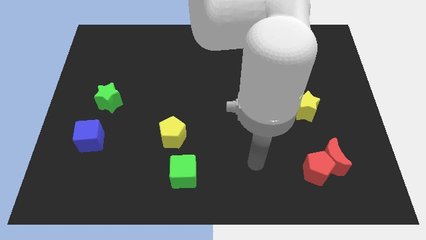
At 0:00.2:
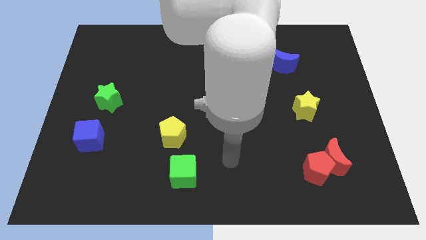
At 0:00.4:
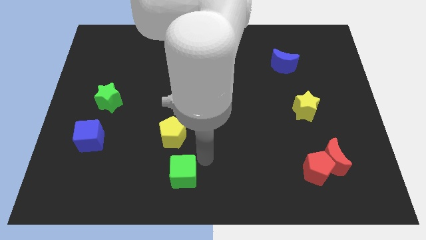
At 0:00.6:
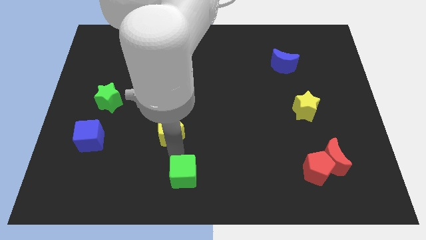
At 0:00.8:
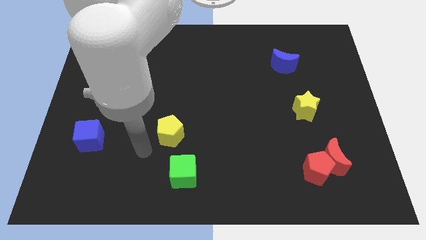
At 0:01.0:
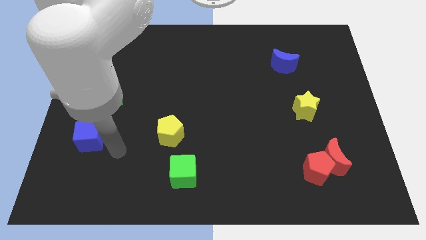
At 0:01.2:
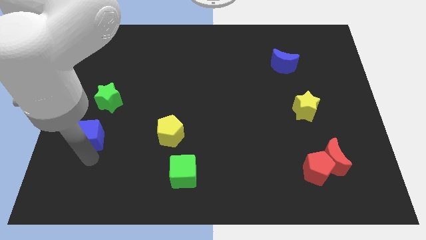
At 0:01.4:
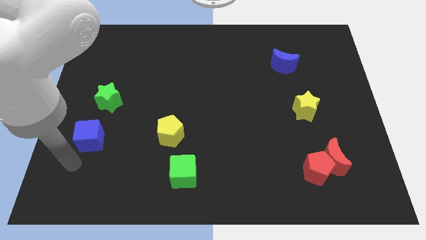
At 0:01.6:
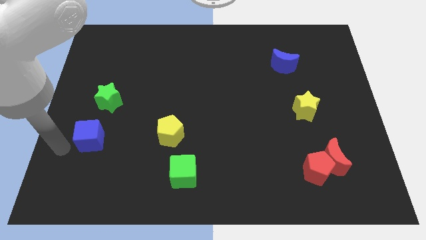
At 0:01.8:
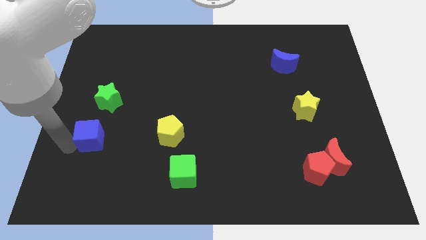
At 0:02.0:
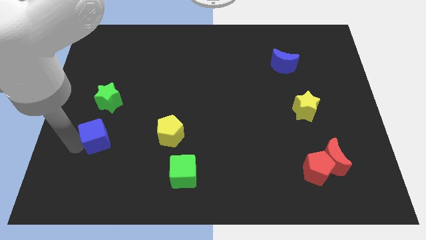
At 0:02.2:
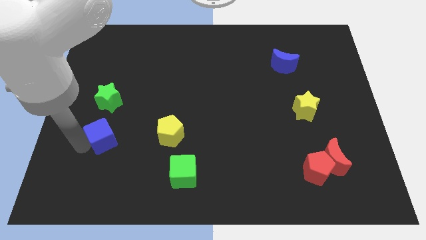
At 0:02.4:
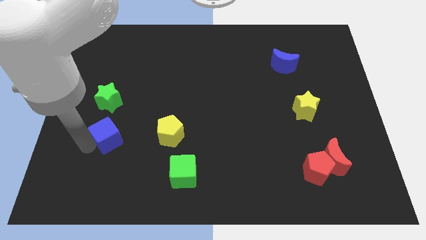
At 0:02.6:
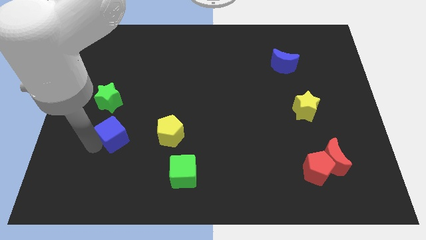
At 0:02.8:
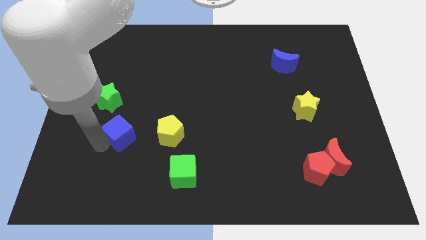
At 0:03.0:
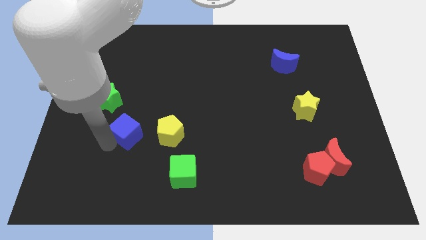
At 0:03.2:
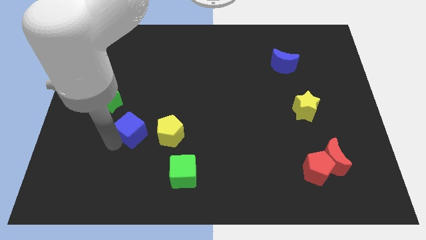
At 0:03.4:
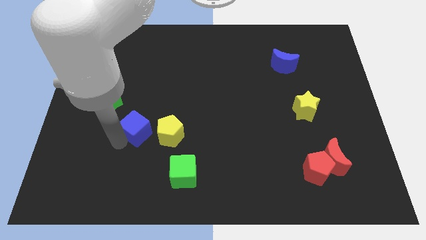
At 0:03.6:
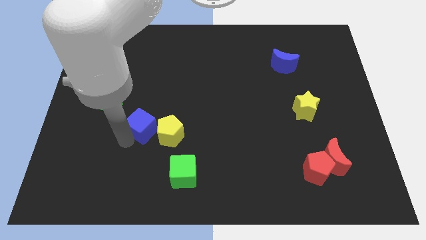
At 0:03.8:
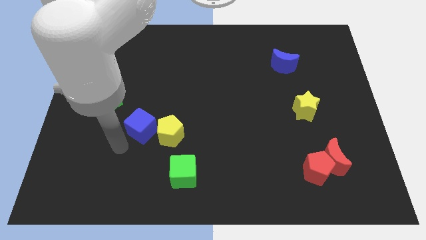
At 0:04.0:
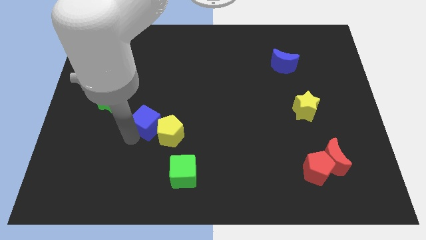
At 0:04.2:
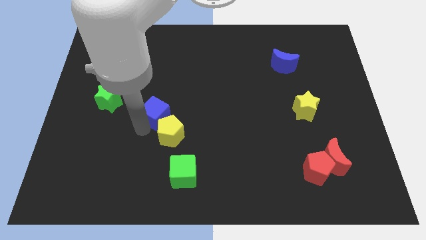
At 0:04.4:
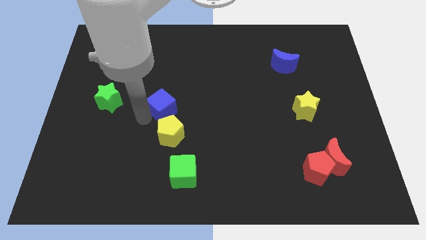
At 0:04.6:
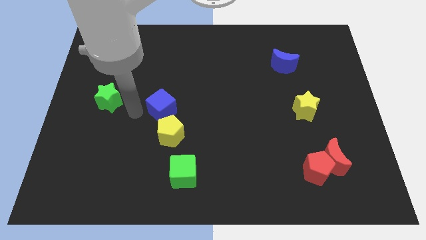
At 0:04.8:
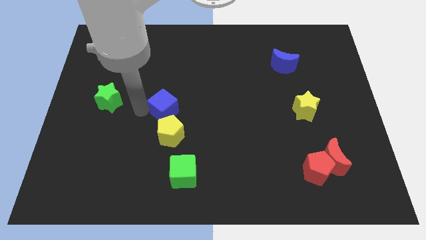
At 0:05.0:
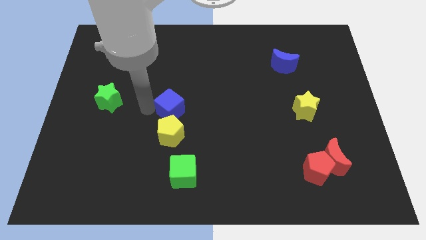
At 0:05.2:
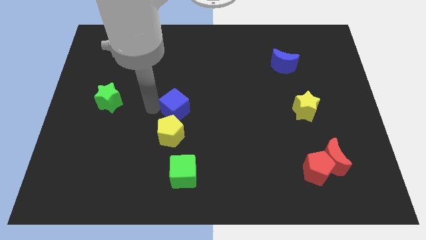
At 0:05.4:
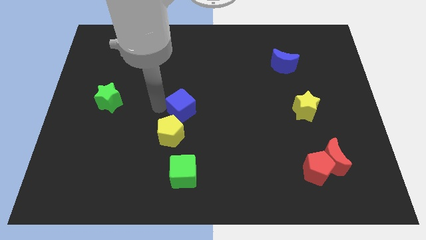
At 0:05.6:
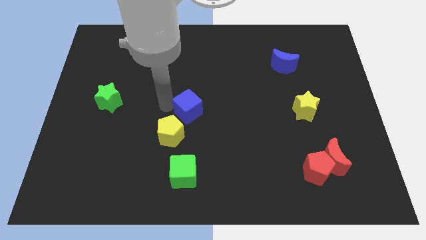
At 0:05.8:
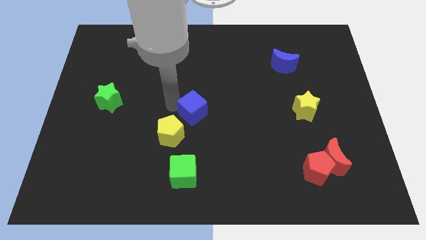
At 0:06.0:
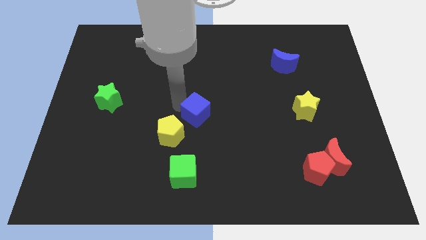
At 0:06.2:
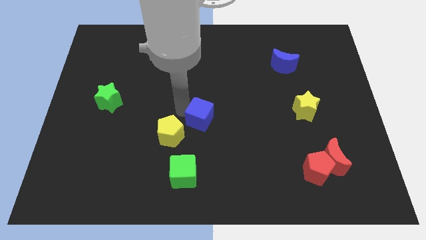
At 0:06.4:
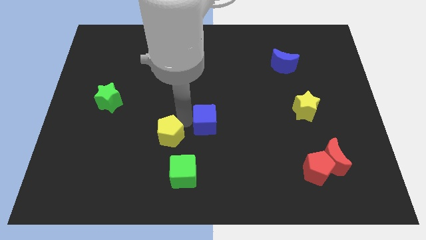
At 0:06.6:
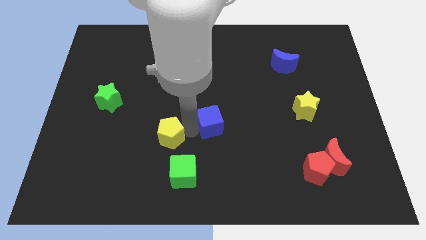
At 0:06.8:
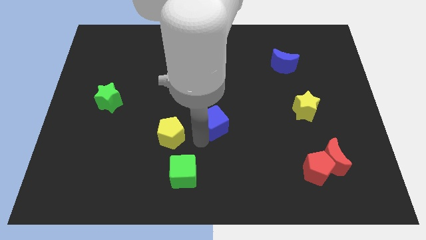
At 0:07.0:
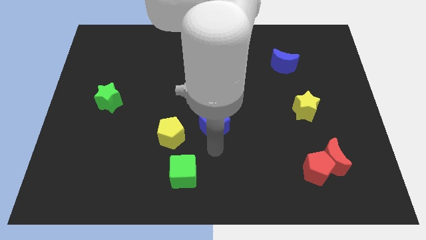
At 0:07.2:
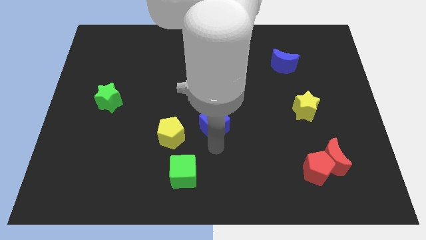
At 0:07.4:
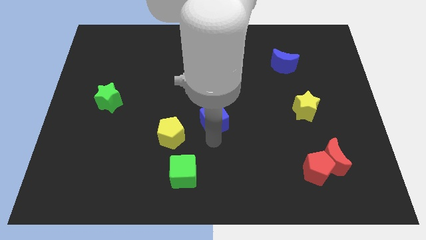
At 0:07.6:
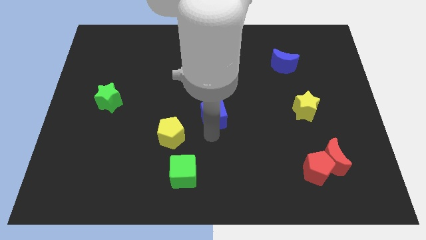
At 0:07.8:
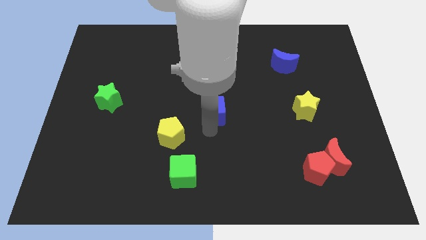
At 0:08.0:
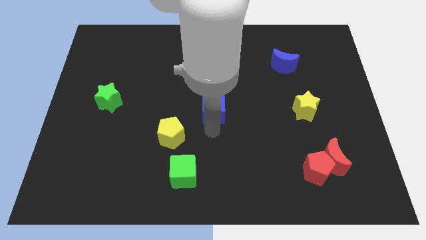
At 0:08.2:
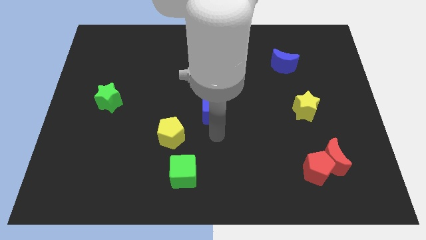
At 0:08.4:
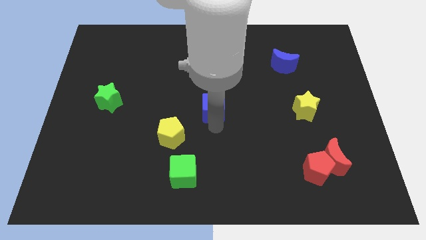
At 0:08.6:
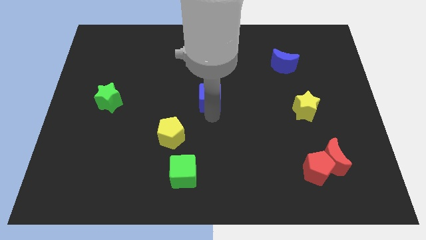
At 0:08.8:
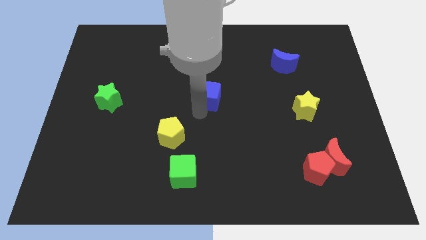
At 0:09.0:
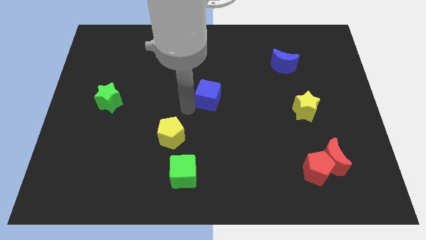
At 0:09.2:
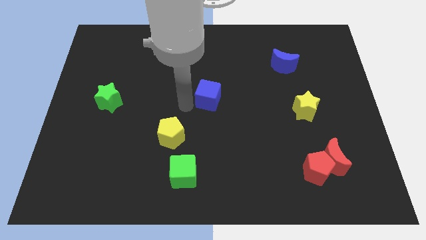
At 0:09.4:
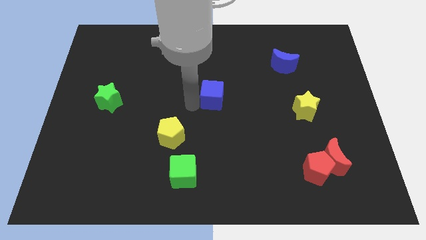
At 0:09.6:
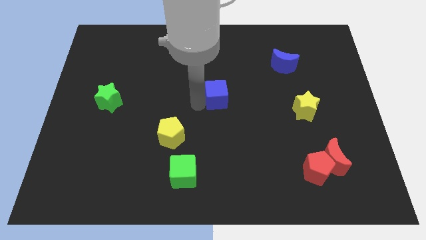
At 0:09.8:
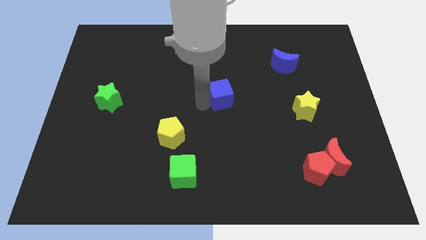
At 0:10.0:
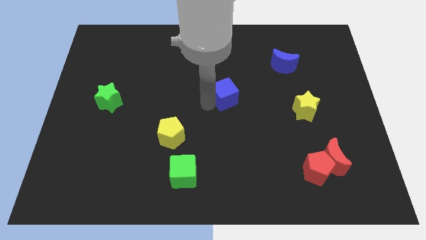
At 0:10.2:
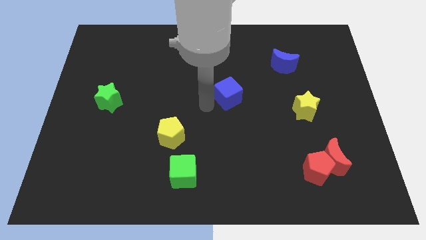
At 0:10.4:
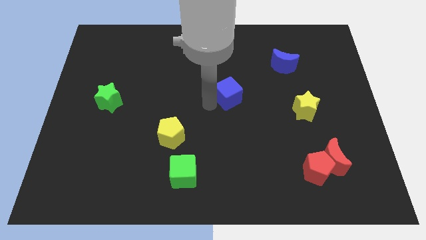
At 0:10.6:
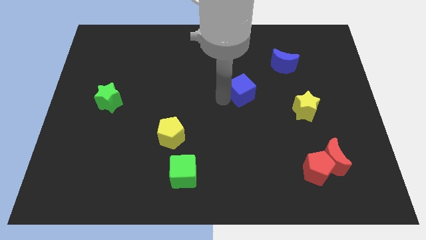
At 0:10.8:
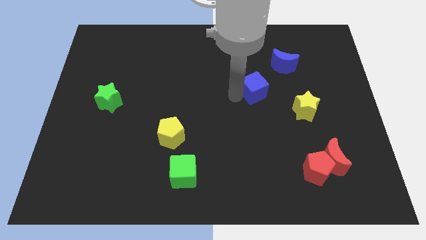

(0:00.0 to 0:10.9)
slide the blue cube to the bottom left side of the blue moon

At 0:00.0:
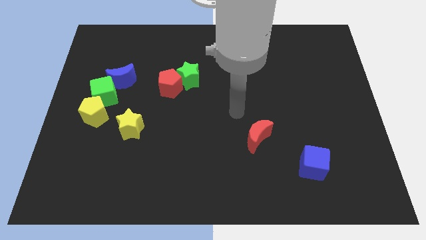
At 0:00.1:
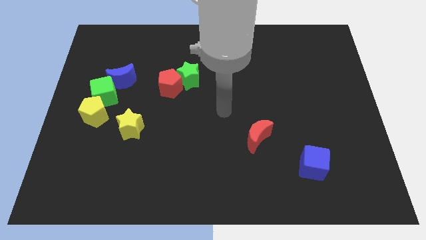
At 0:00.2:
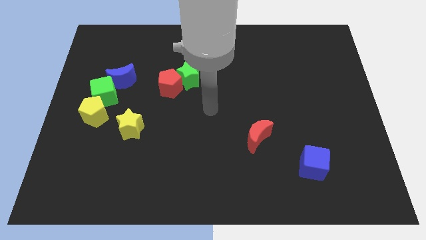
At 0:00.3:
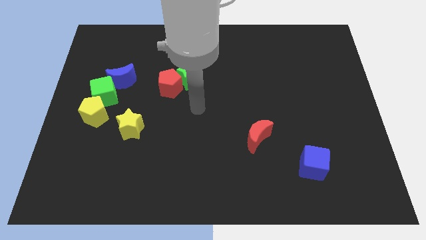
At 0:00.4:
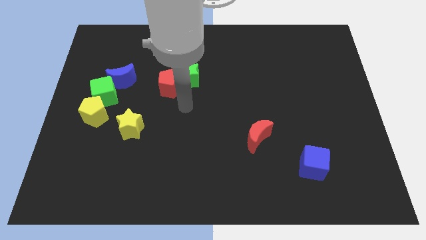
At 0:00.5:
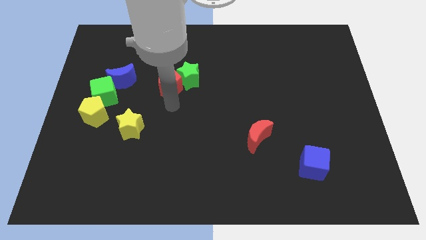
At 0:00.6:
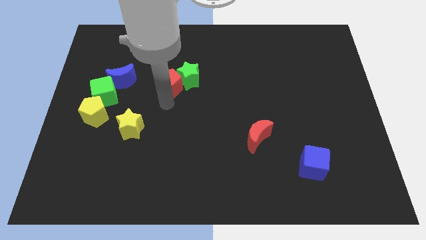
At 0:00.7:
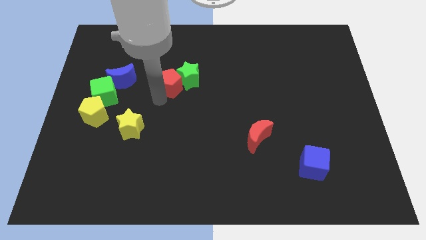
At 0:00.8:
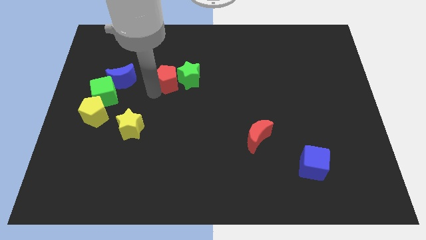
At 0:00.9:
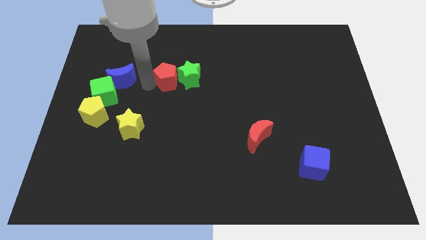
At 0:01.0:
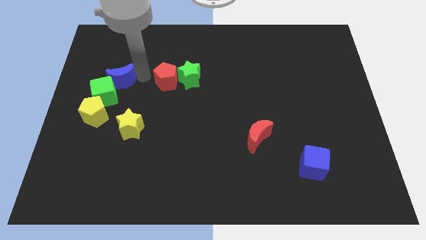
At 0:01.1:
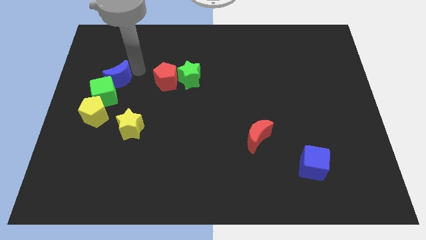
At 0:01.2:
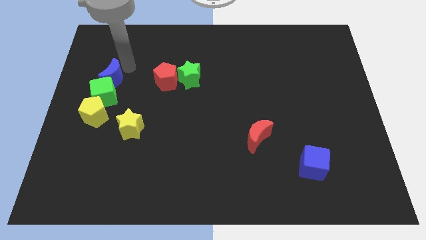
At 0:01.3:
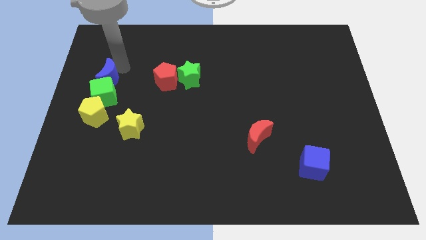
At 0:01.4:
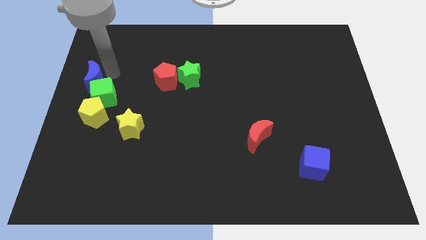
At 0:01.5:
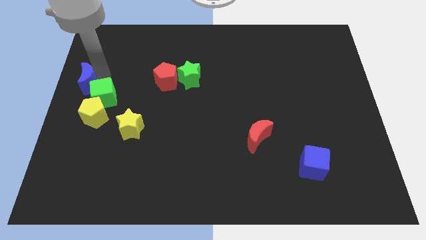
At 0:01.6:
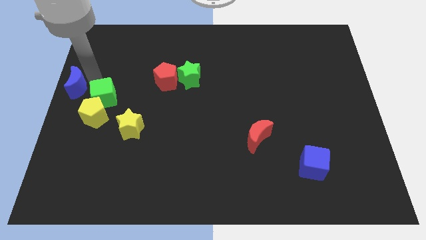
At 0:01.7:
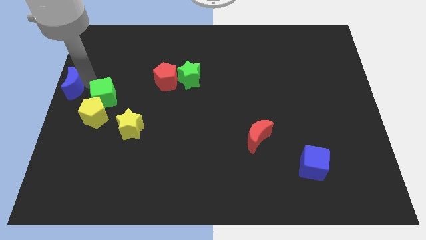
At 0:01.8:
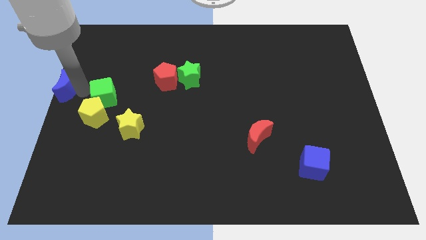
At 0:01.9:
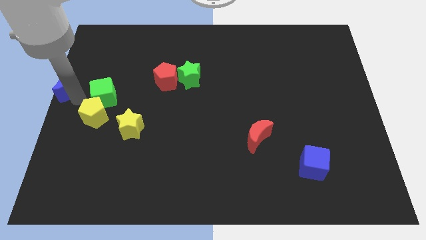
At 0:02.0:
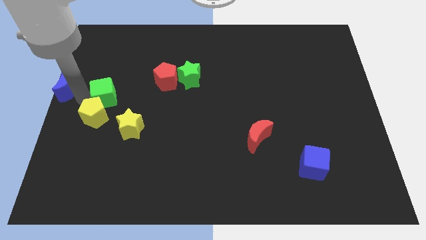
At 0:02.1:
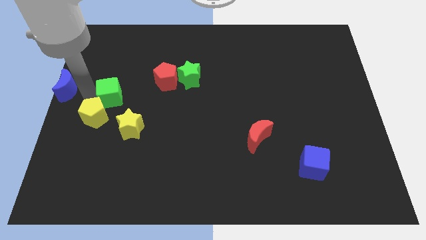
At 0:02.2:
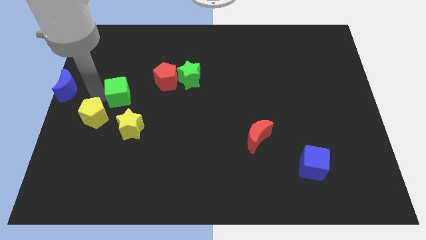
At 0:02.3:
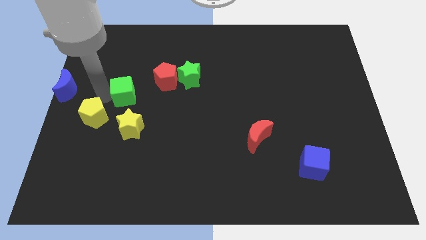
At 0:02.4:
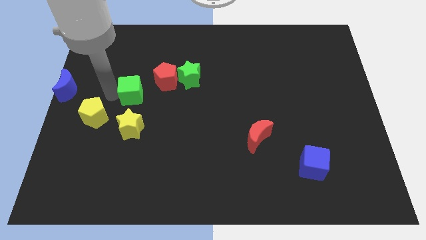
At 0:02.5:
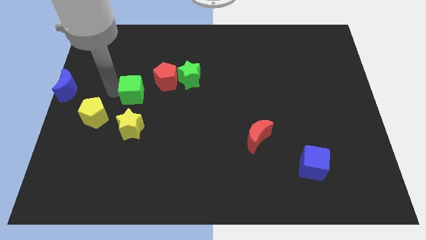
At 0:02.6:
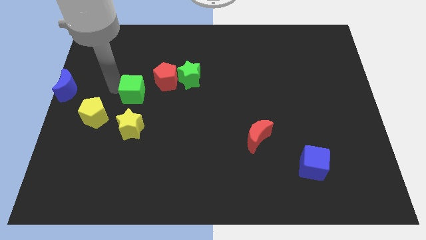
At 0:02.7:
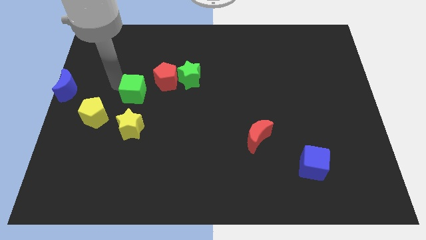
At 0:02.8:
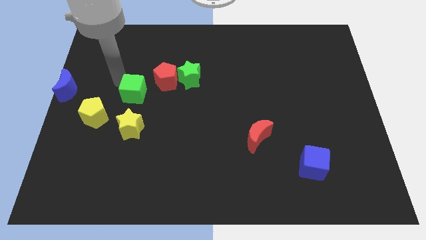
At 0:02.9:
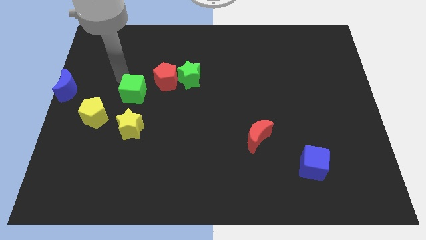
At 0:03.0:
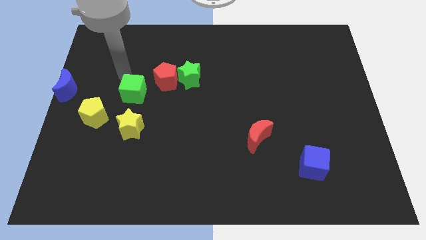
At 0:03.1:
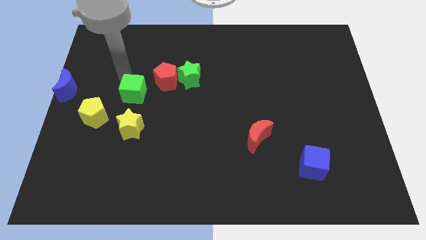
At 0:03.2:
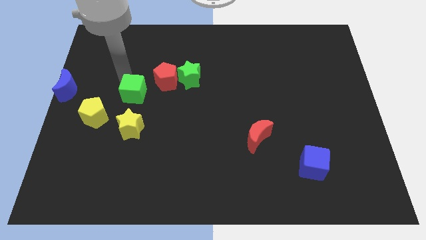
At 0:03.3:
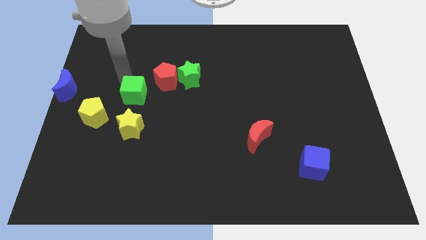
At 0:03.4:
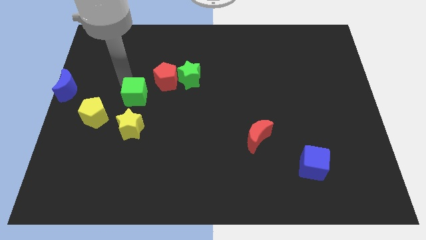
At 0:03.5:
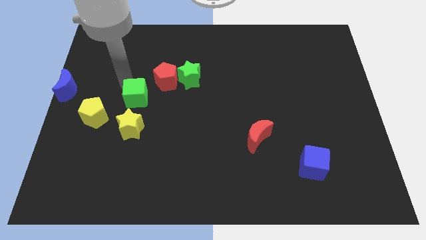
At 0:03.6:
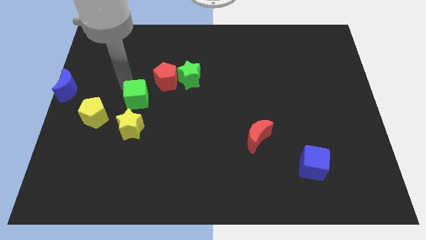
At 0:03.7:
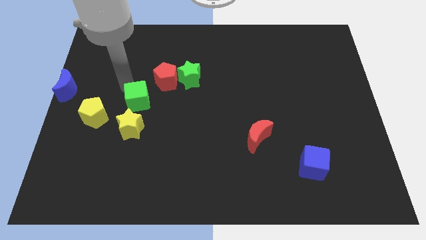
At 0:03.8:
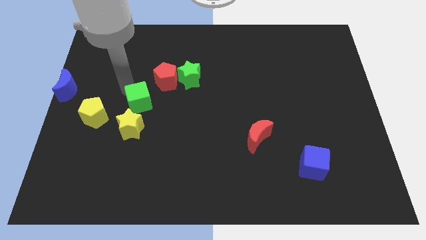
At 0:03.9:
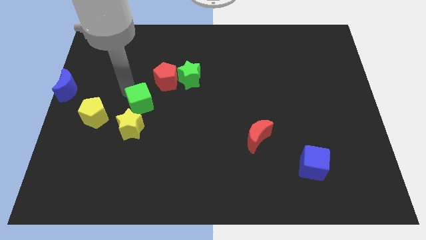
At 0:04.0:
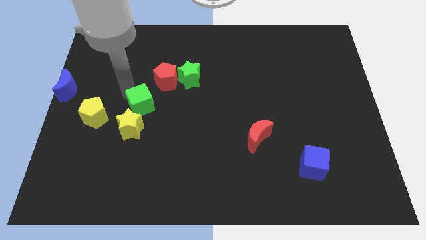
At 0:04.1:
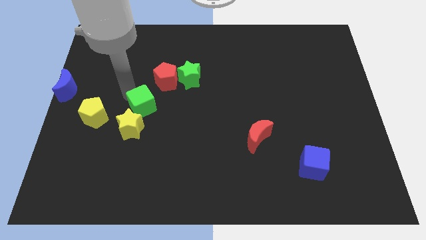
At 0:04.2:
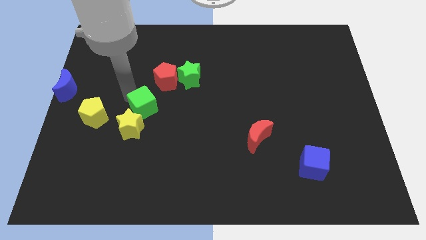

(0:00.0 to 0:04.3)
slide the green cube to the bottom of the red pentagon
